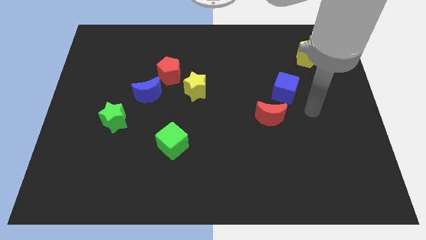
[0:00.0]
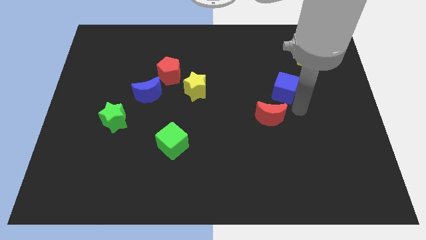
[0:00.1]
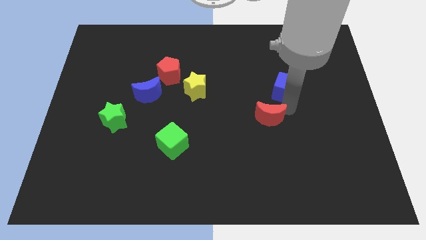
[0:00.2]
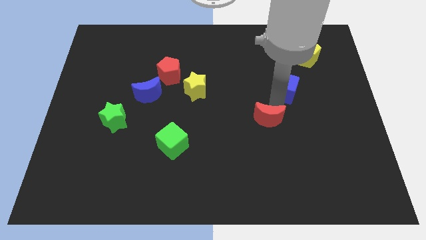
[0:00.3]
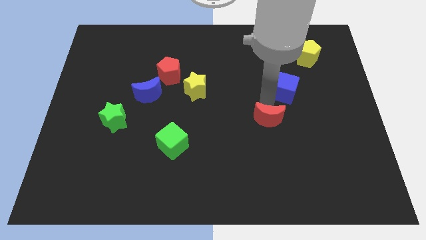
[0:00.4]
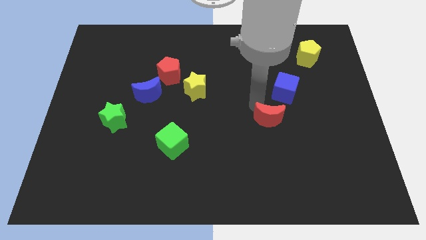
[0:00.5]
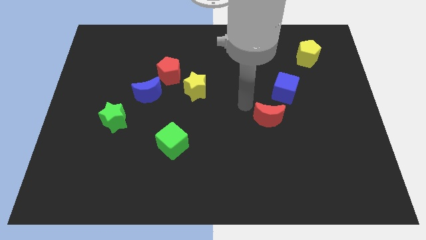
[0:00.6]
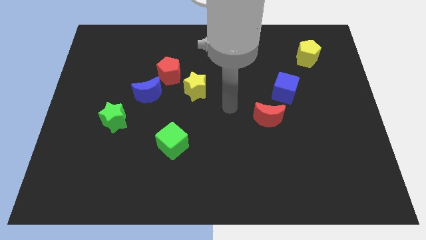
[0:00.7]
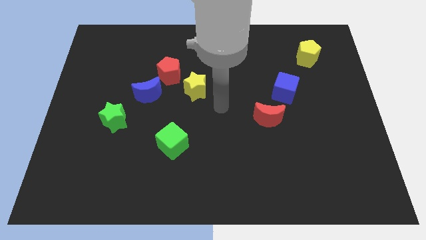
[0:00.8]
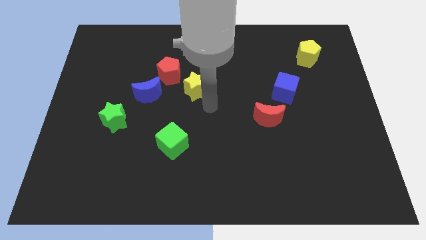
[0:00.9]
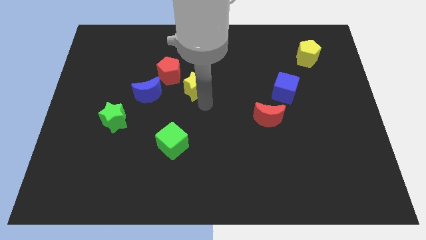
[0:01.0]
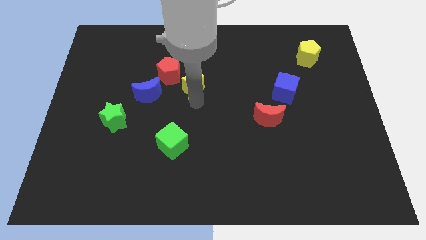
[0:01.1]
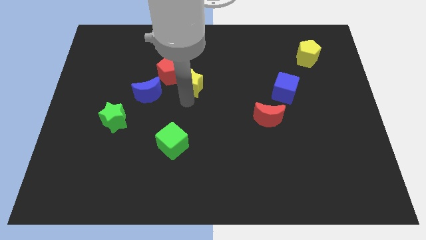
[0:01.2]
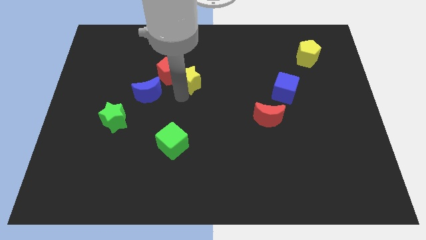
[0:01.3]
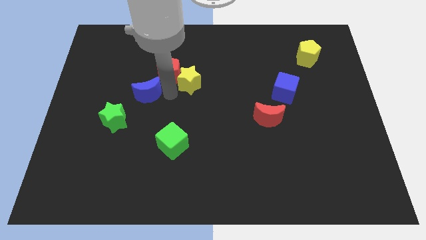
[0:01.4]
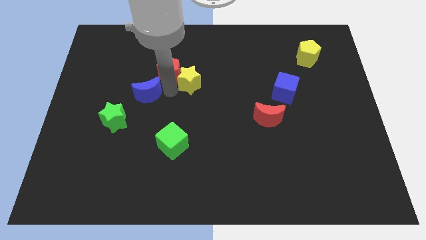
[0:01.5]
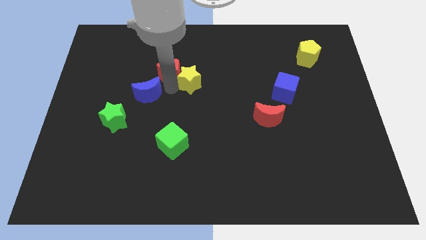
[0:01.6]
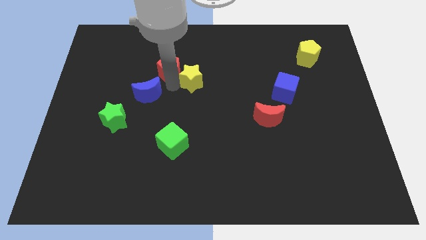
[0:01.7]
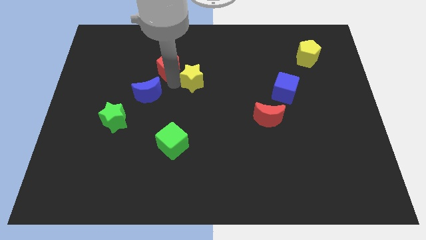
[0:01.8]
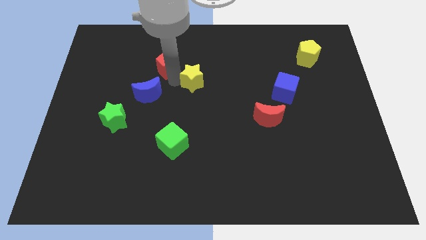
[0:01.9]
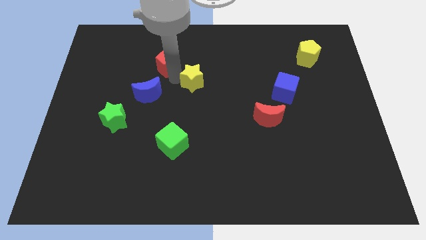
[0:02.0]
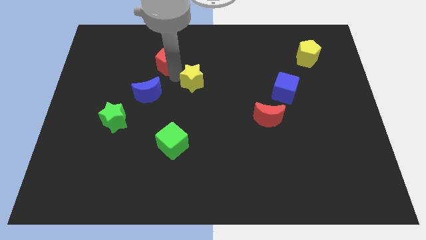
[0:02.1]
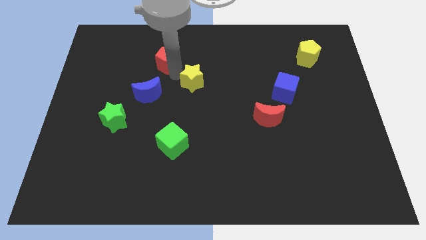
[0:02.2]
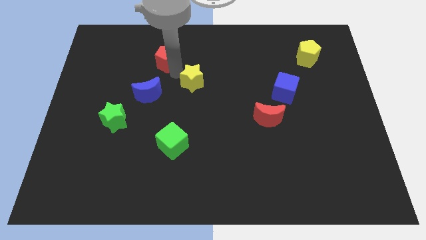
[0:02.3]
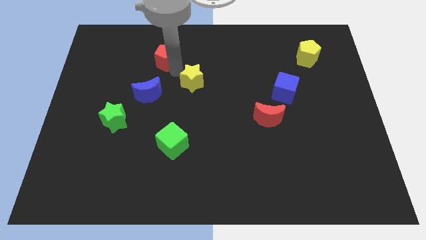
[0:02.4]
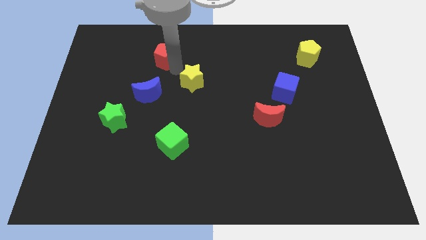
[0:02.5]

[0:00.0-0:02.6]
separate the red pentagon from the blue moon and yellow star

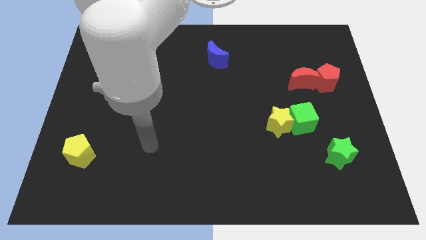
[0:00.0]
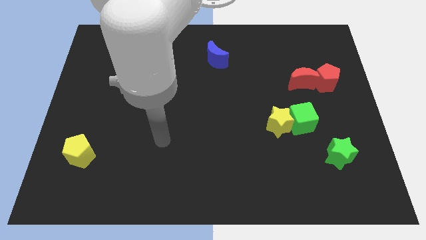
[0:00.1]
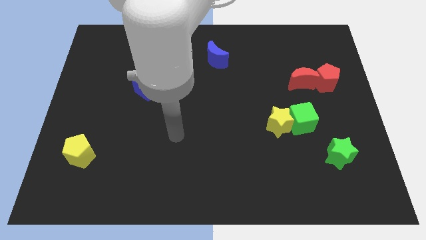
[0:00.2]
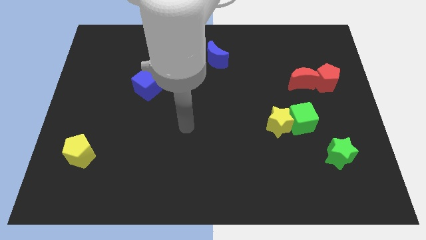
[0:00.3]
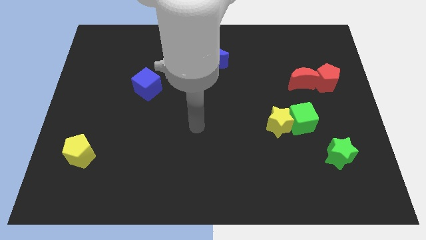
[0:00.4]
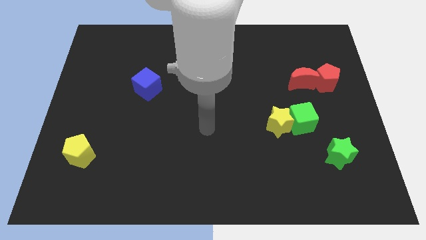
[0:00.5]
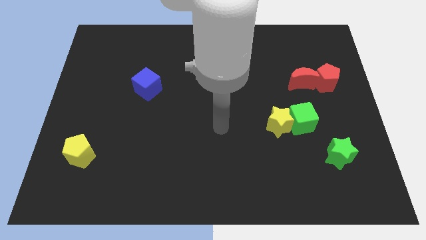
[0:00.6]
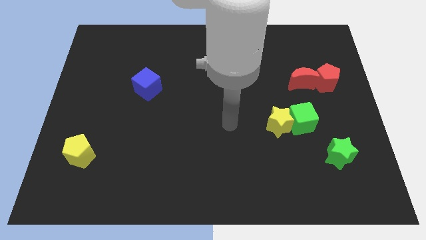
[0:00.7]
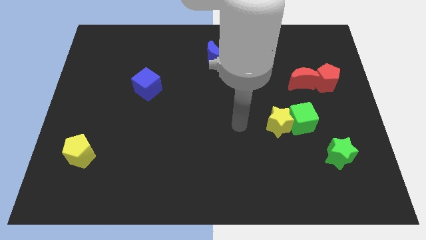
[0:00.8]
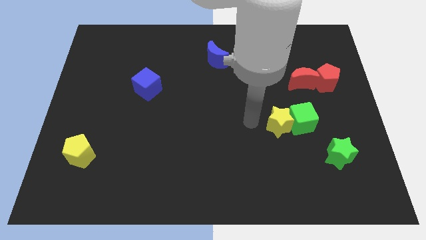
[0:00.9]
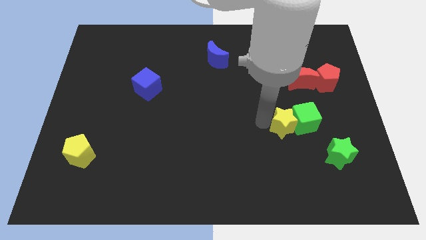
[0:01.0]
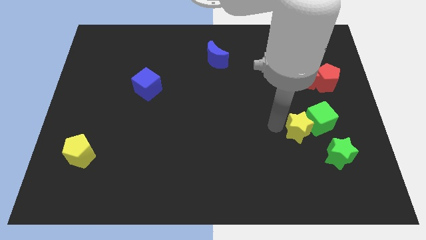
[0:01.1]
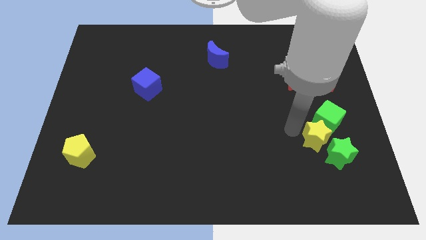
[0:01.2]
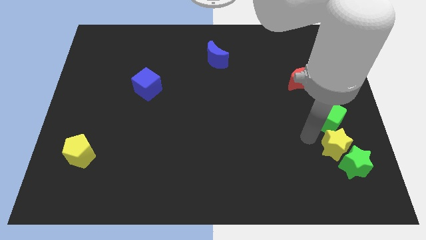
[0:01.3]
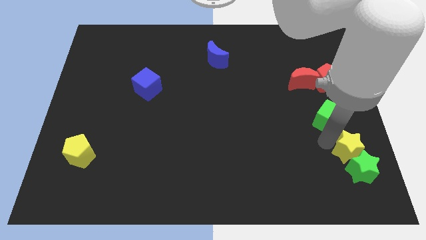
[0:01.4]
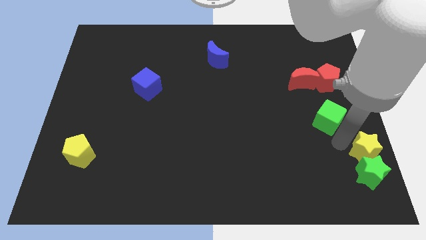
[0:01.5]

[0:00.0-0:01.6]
pull the green cube apart from the yellow star

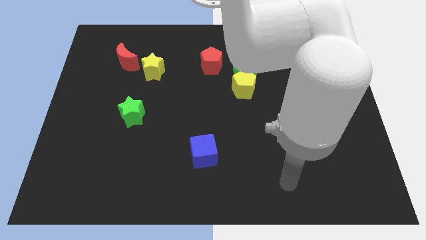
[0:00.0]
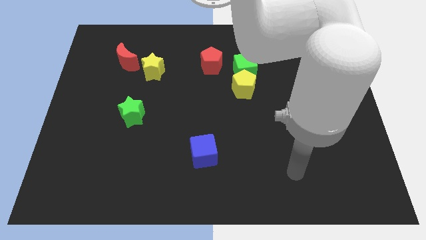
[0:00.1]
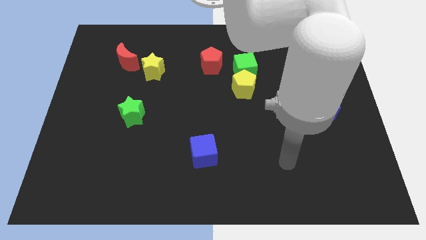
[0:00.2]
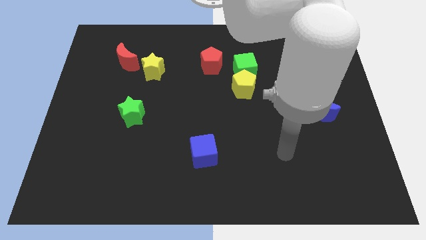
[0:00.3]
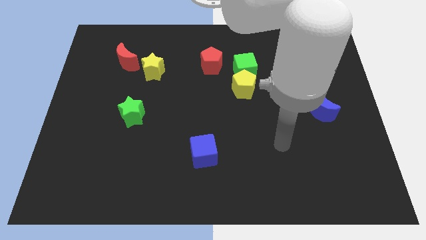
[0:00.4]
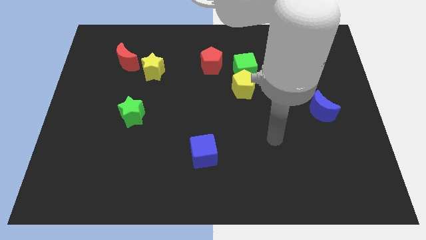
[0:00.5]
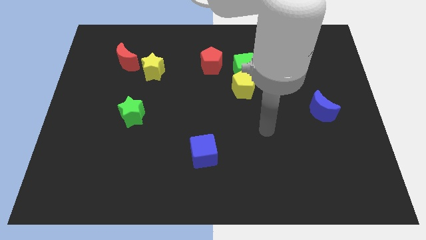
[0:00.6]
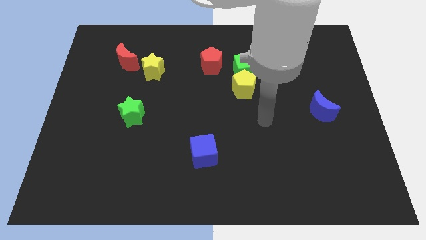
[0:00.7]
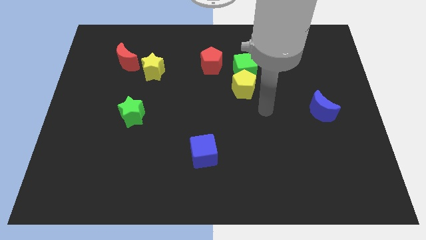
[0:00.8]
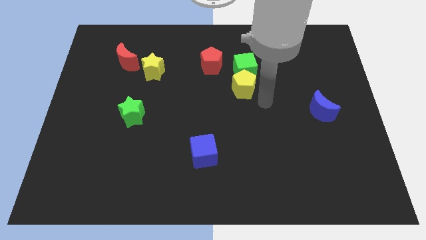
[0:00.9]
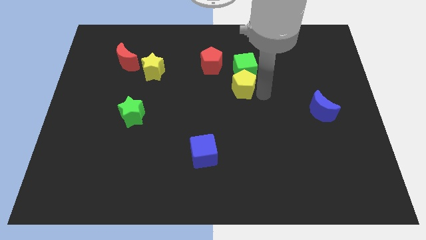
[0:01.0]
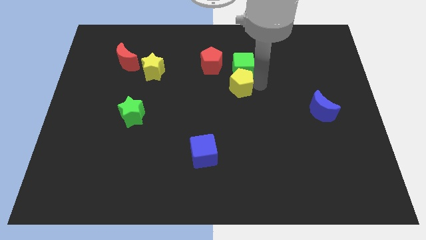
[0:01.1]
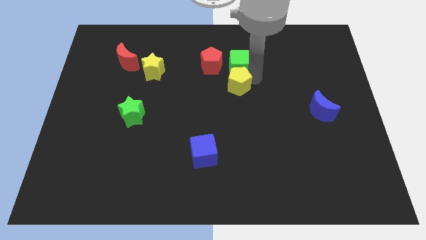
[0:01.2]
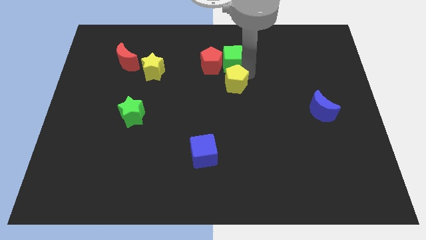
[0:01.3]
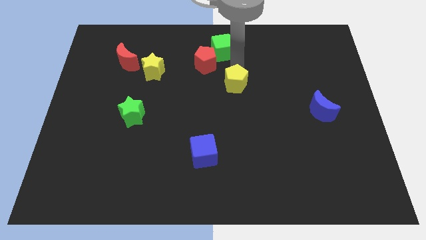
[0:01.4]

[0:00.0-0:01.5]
move the yellow pentagon away from the green cube

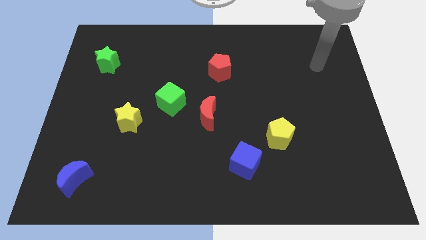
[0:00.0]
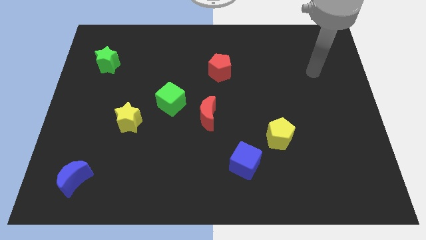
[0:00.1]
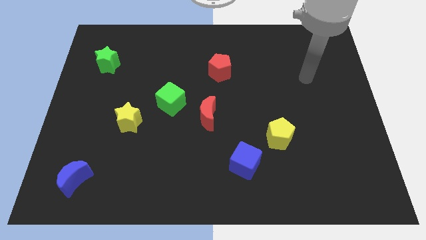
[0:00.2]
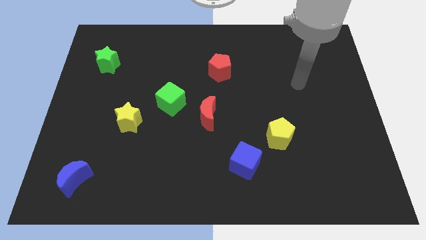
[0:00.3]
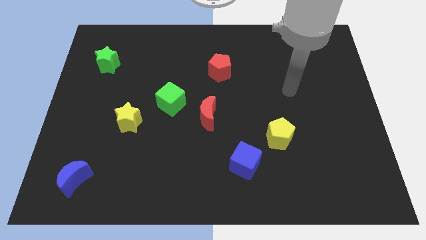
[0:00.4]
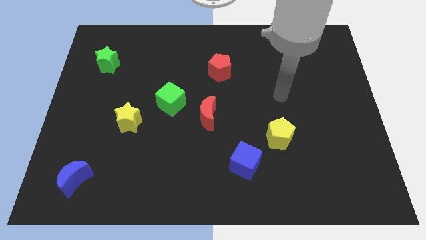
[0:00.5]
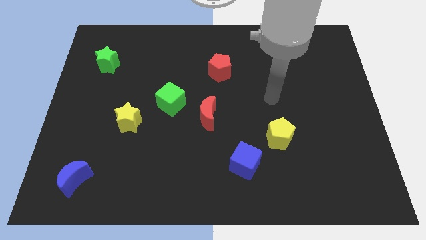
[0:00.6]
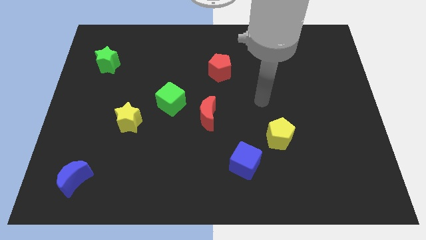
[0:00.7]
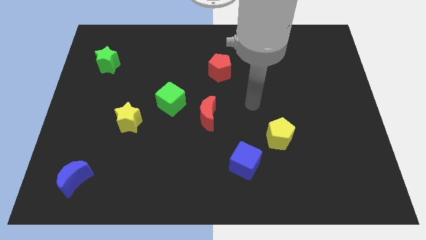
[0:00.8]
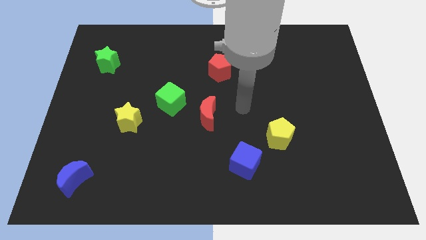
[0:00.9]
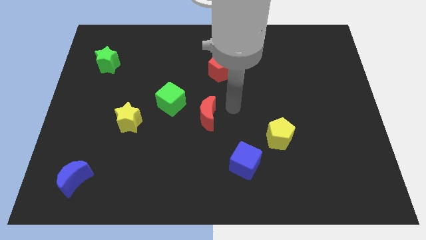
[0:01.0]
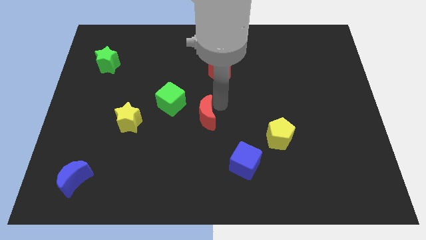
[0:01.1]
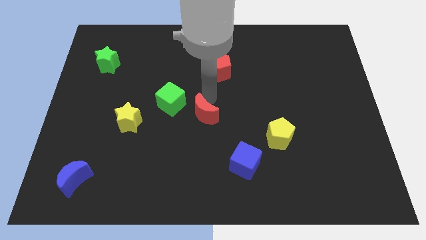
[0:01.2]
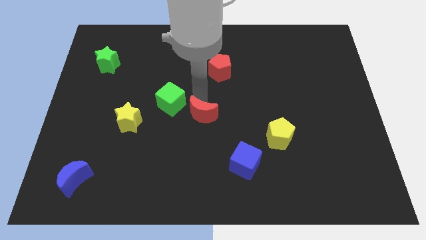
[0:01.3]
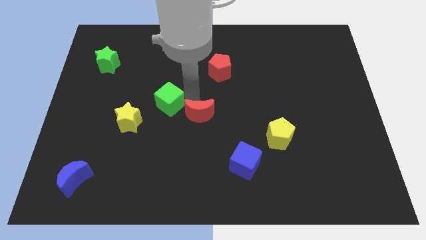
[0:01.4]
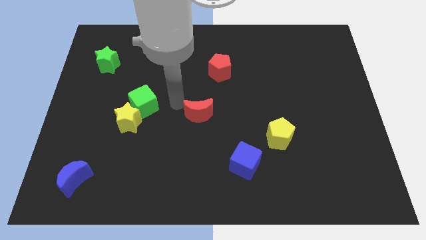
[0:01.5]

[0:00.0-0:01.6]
separate the red moon from the green cube

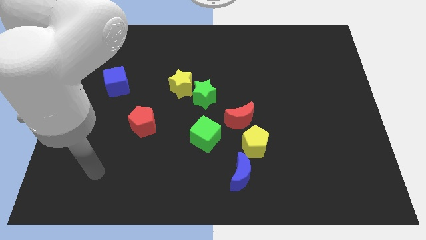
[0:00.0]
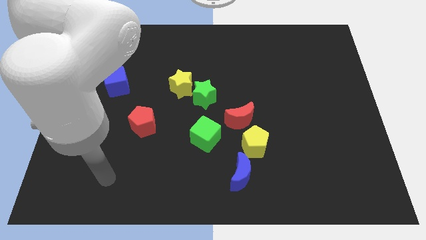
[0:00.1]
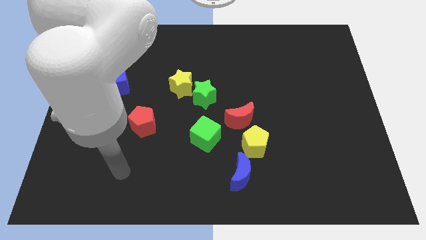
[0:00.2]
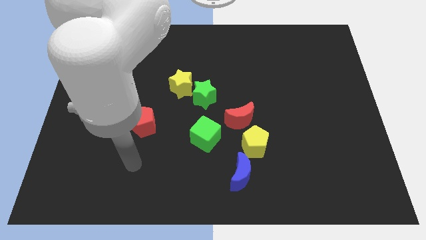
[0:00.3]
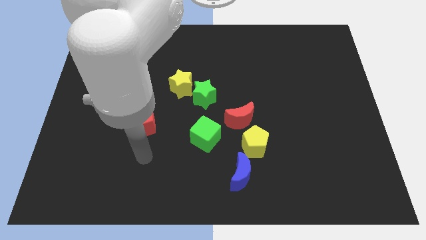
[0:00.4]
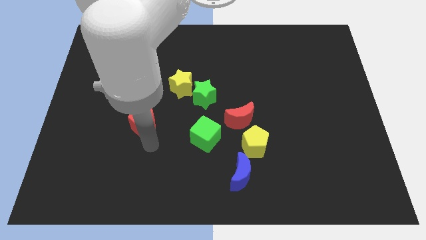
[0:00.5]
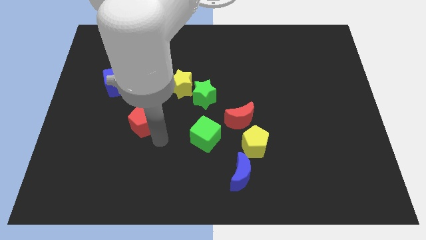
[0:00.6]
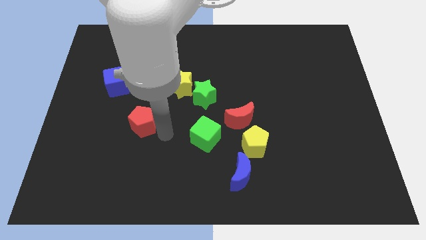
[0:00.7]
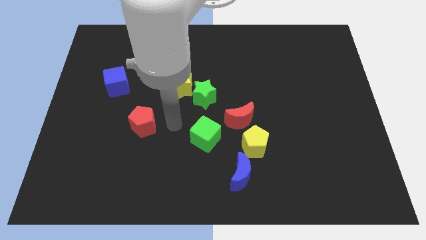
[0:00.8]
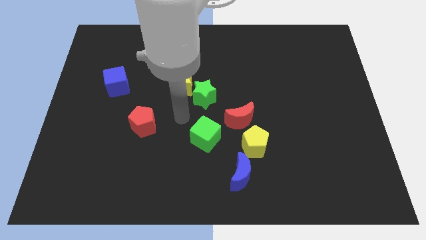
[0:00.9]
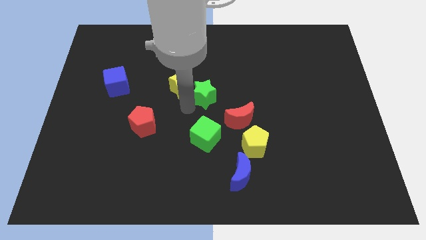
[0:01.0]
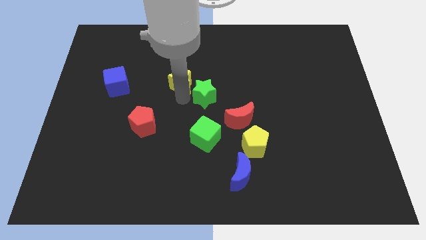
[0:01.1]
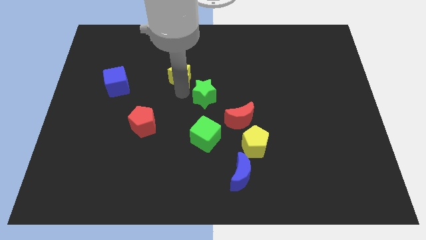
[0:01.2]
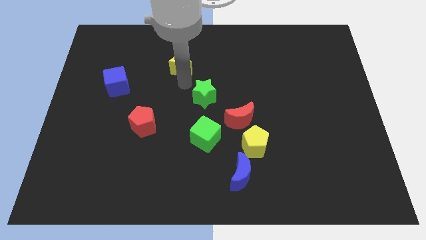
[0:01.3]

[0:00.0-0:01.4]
move the green star away from the yellow star

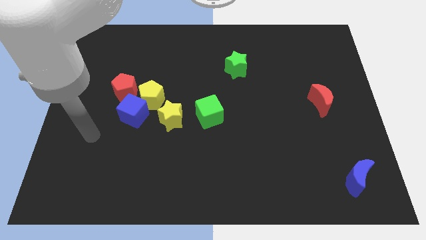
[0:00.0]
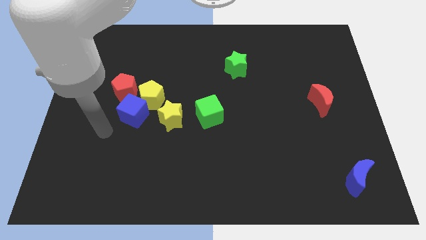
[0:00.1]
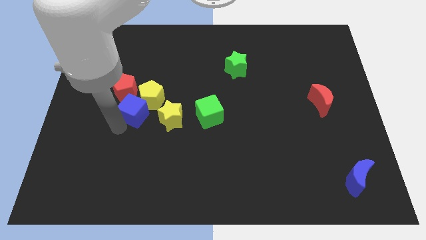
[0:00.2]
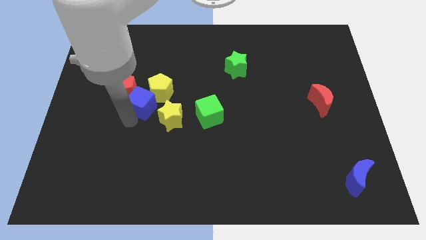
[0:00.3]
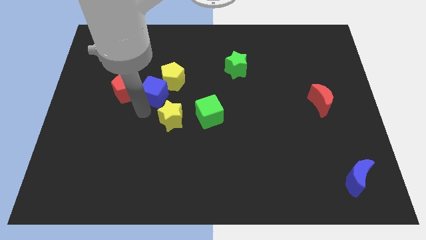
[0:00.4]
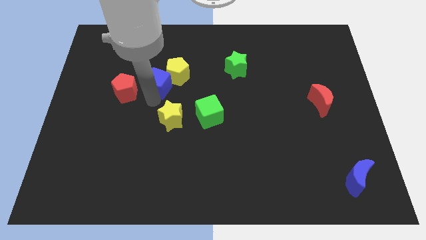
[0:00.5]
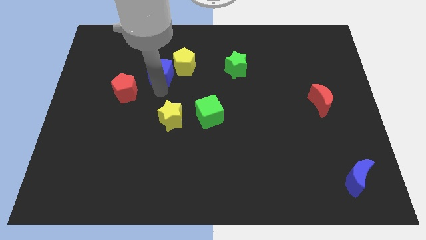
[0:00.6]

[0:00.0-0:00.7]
separate the yellow pentagon from the blue cube, red pentagon, and yellow star

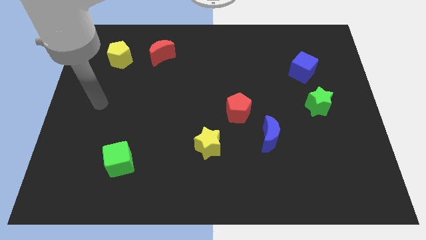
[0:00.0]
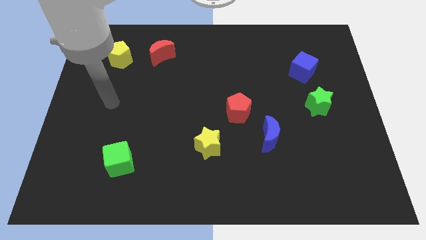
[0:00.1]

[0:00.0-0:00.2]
separate the red pentagon from the blue moon
